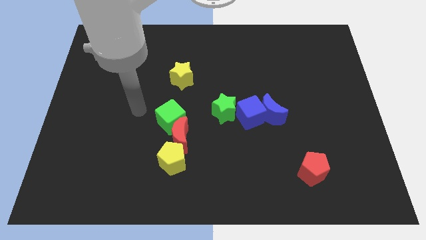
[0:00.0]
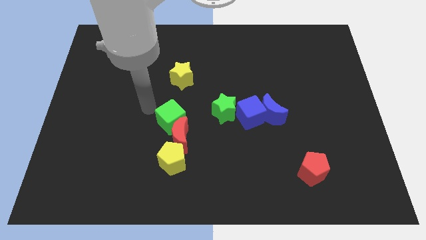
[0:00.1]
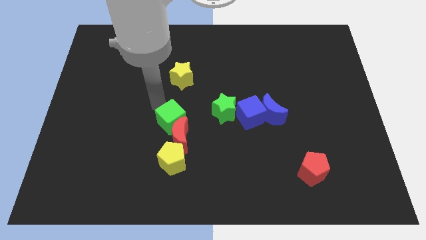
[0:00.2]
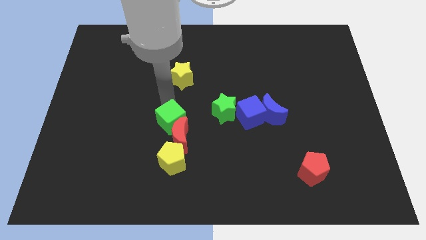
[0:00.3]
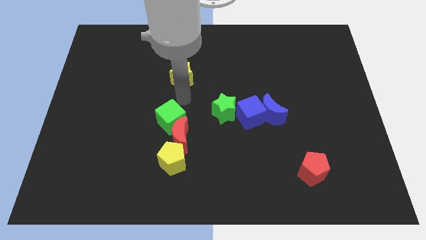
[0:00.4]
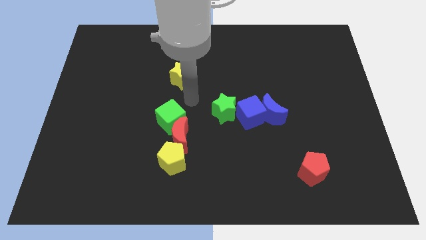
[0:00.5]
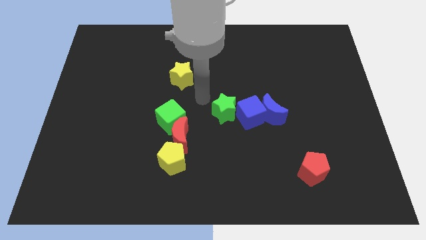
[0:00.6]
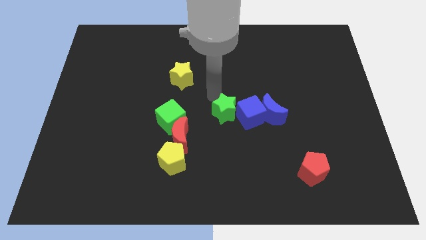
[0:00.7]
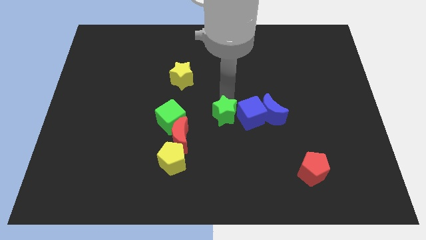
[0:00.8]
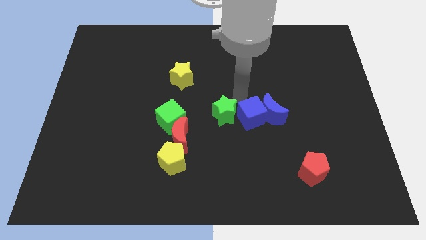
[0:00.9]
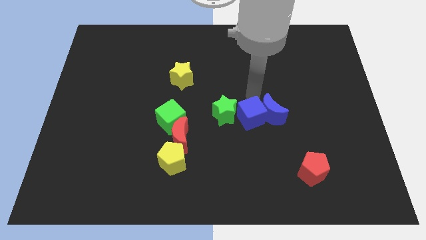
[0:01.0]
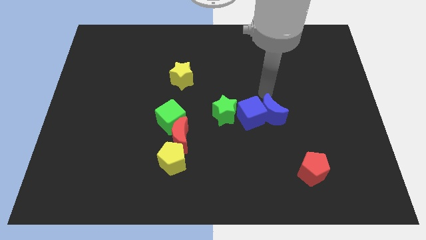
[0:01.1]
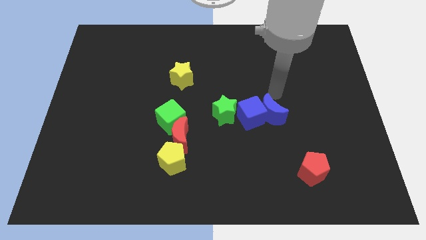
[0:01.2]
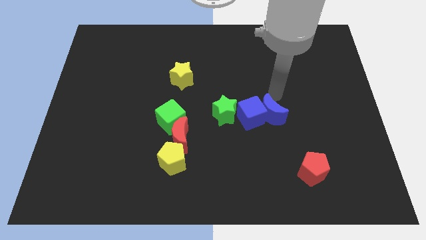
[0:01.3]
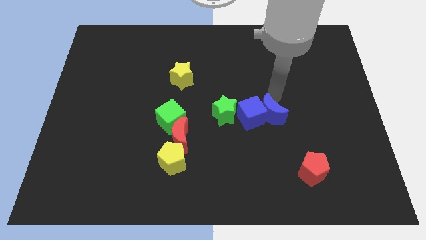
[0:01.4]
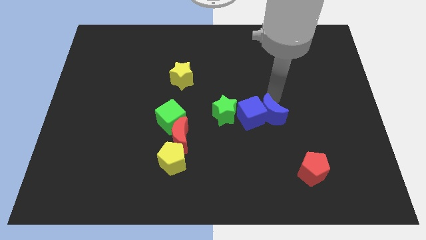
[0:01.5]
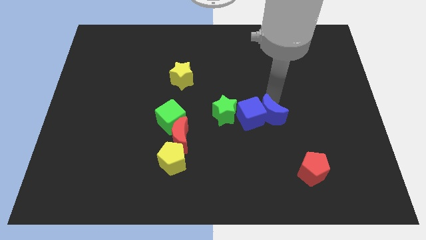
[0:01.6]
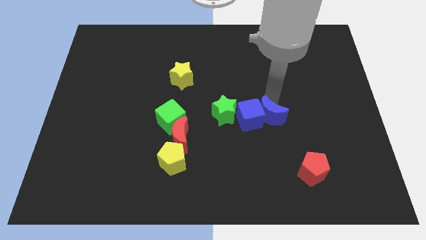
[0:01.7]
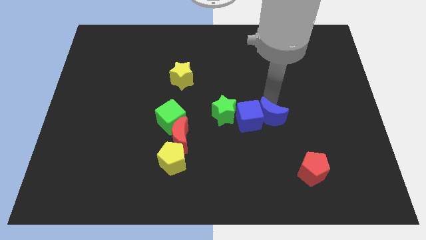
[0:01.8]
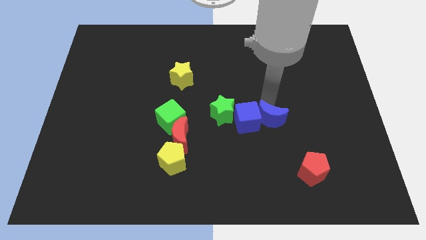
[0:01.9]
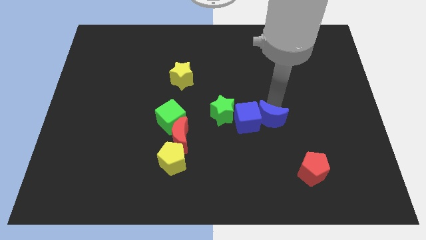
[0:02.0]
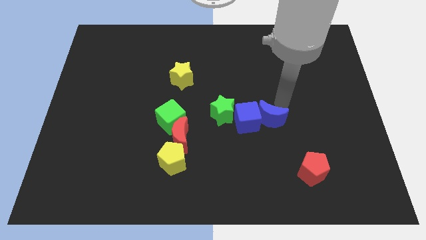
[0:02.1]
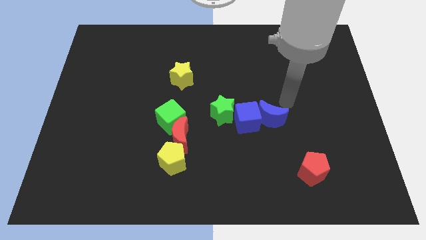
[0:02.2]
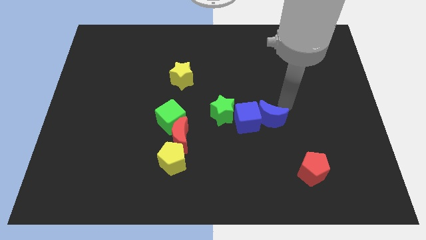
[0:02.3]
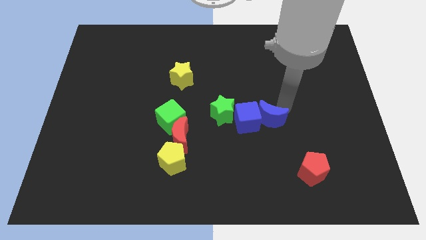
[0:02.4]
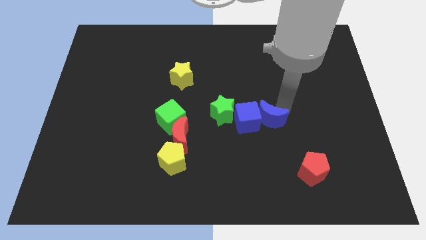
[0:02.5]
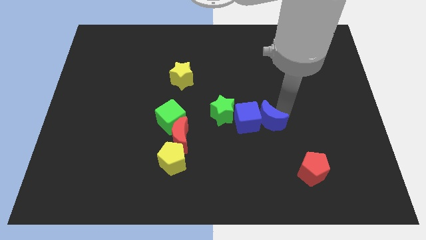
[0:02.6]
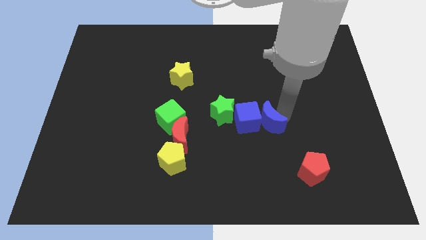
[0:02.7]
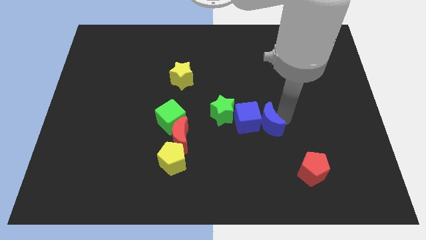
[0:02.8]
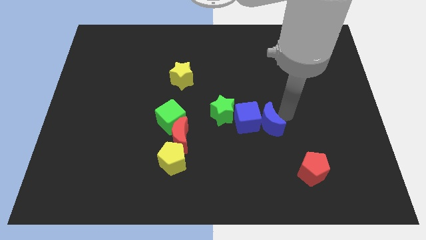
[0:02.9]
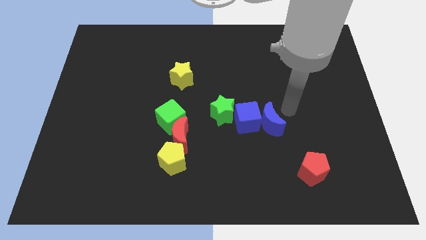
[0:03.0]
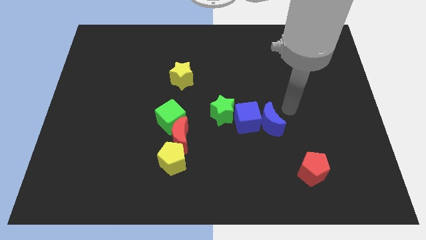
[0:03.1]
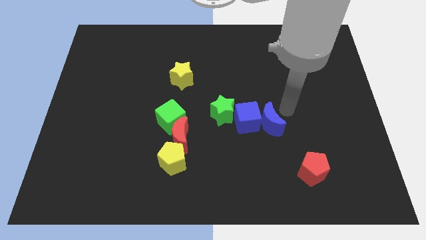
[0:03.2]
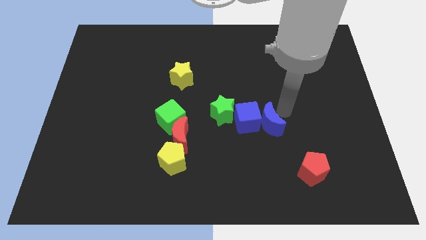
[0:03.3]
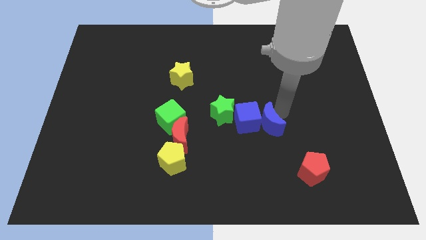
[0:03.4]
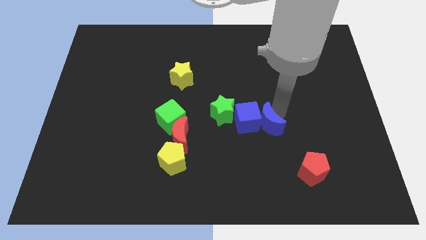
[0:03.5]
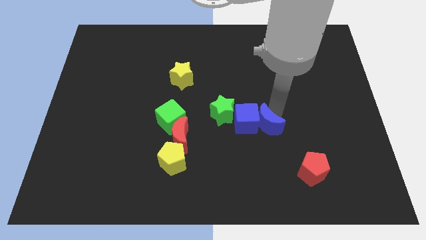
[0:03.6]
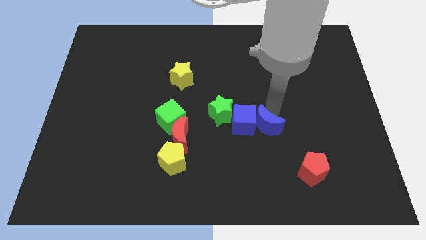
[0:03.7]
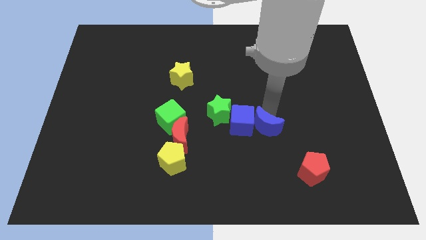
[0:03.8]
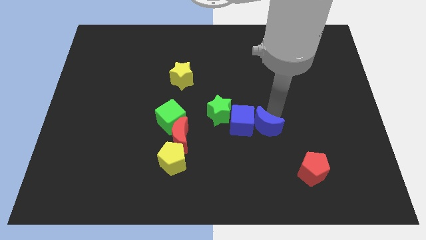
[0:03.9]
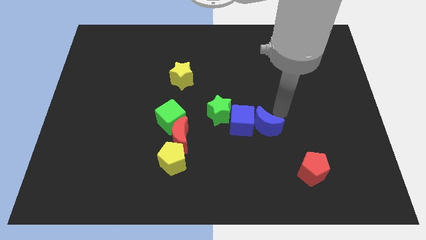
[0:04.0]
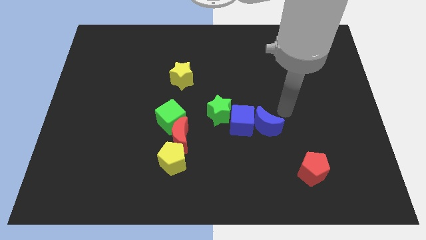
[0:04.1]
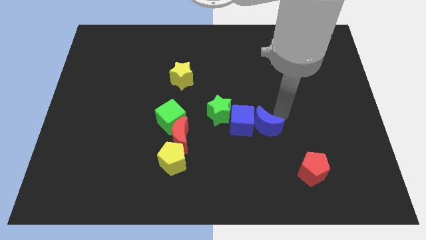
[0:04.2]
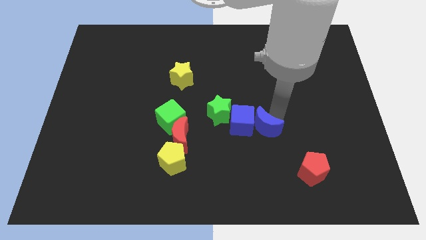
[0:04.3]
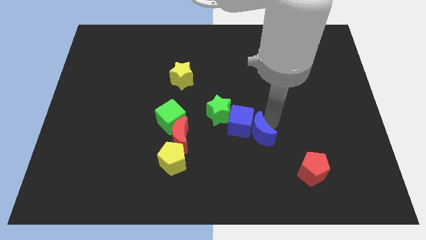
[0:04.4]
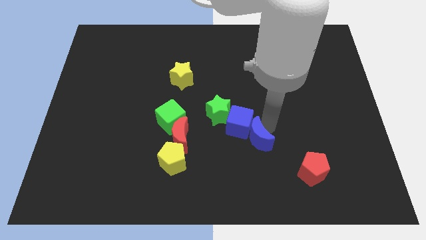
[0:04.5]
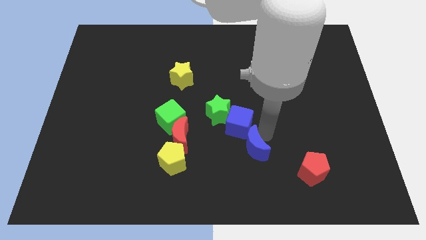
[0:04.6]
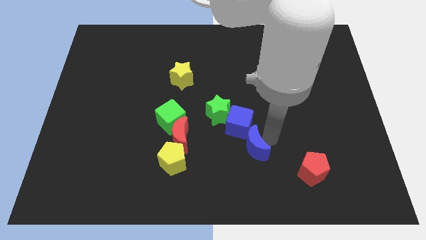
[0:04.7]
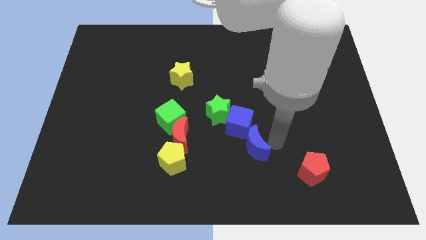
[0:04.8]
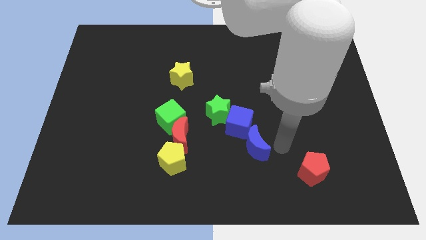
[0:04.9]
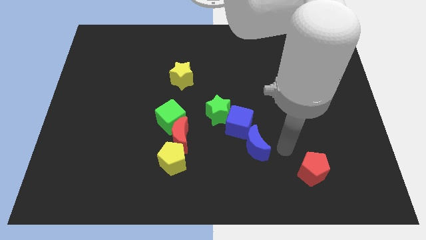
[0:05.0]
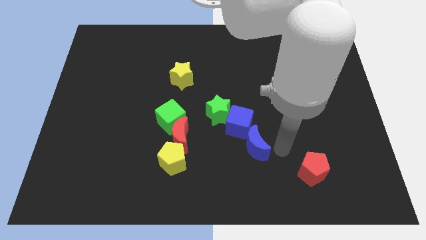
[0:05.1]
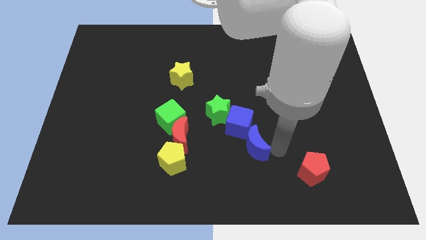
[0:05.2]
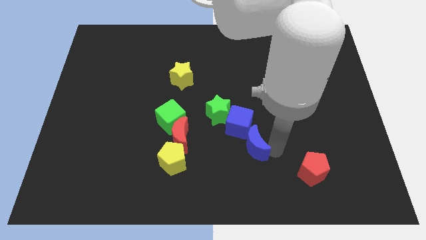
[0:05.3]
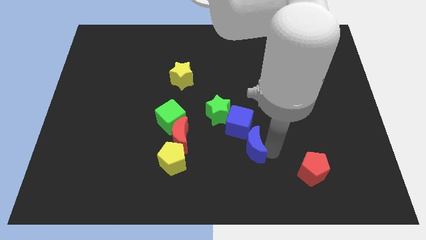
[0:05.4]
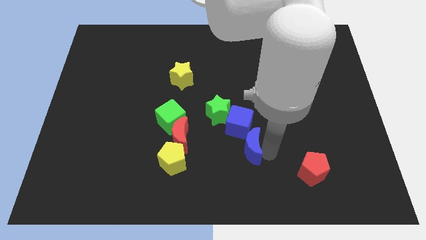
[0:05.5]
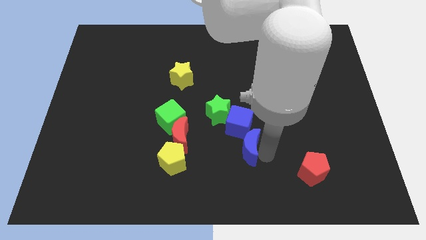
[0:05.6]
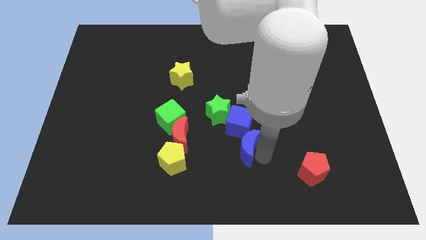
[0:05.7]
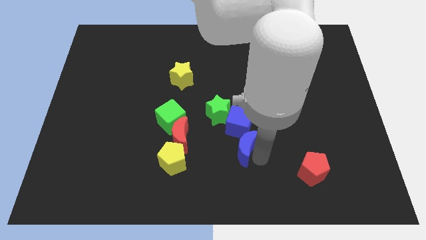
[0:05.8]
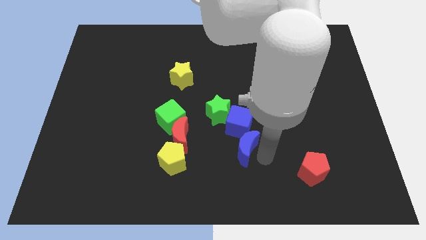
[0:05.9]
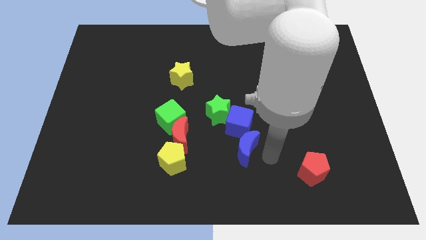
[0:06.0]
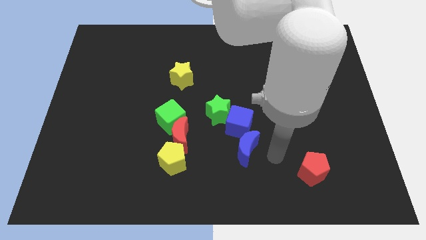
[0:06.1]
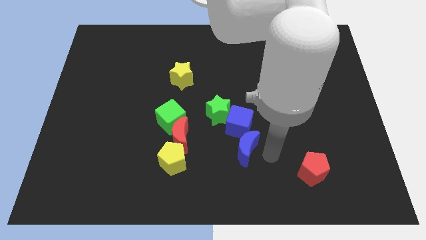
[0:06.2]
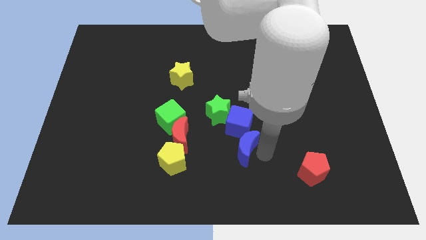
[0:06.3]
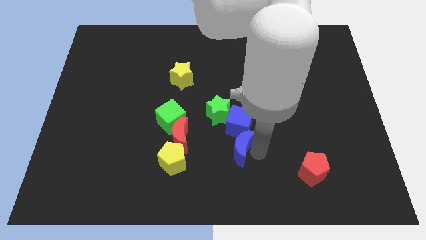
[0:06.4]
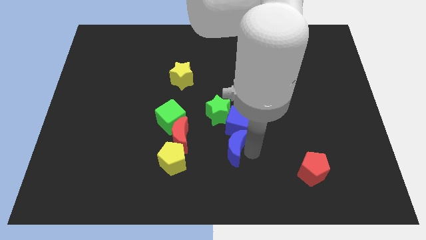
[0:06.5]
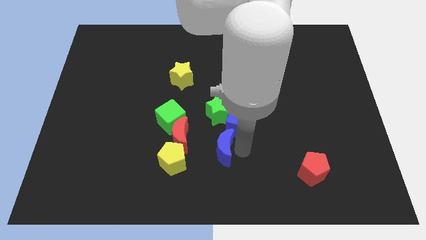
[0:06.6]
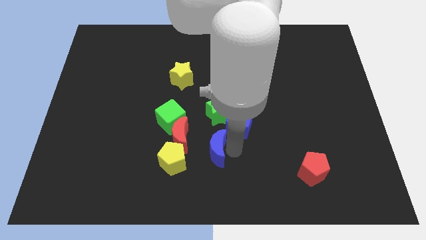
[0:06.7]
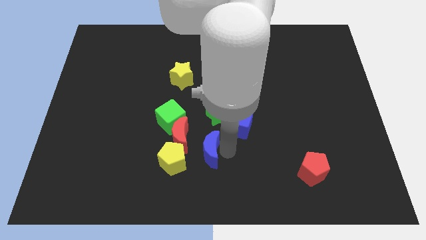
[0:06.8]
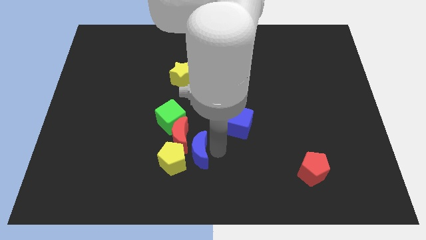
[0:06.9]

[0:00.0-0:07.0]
push the blue moon next to the yellow pentagon

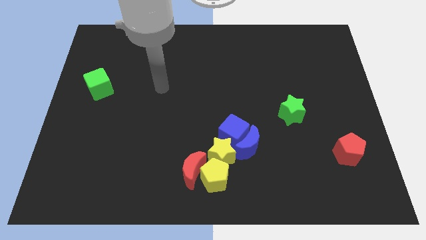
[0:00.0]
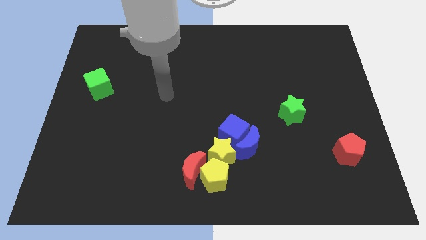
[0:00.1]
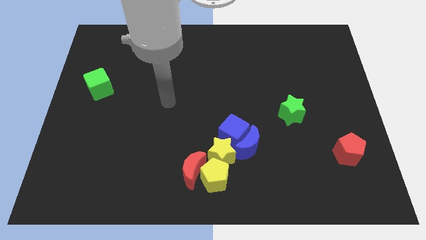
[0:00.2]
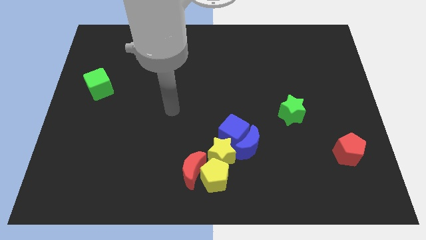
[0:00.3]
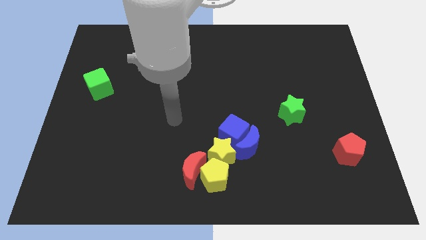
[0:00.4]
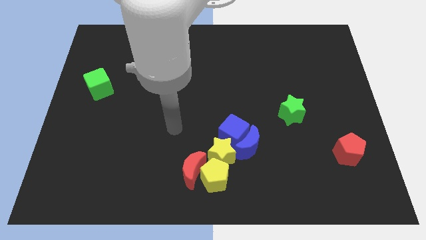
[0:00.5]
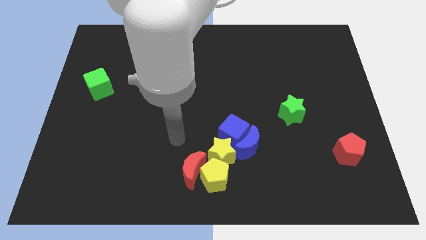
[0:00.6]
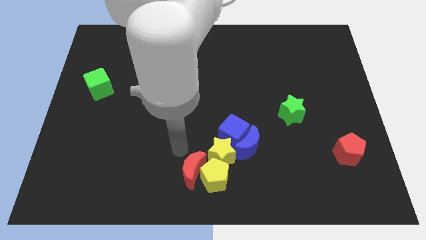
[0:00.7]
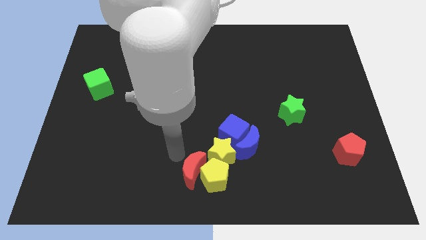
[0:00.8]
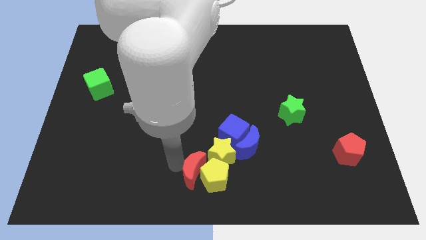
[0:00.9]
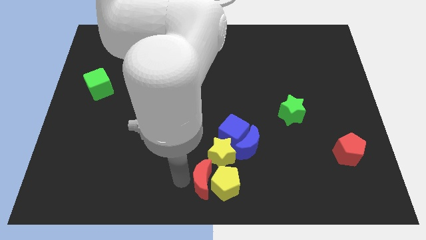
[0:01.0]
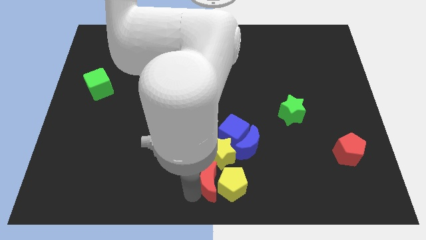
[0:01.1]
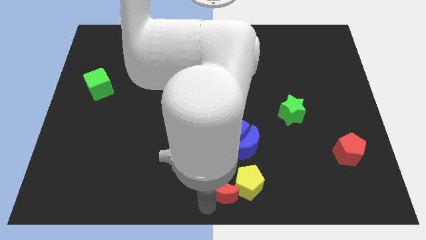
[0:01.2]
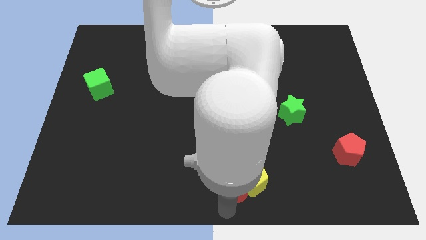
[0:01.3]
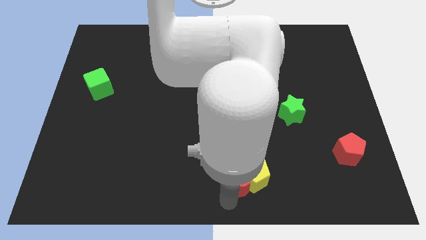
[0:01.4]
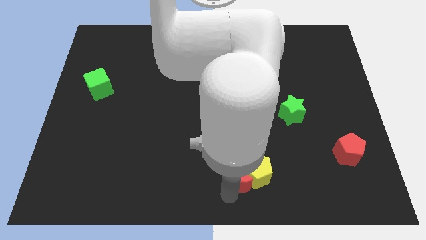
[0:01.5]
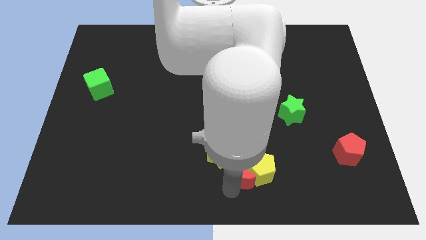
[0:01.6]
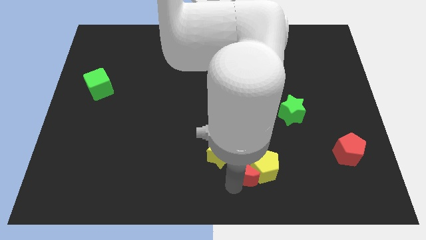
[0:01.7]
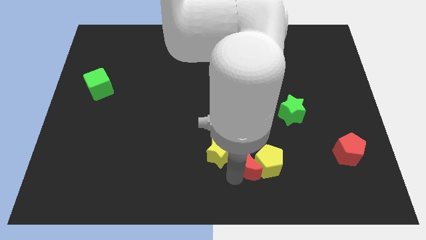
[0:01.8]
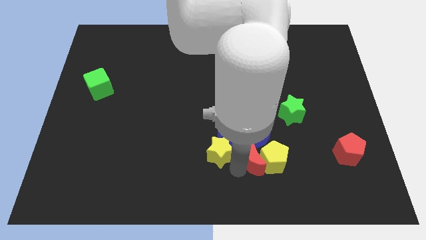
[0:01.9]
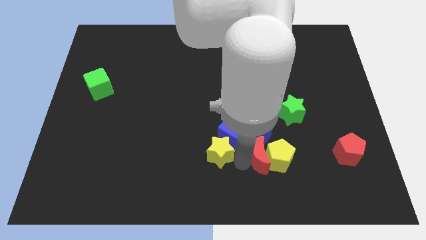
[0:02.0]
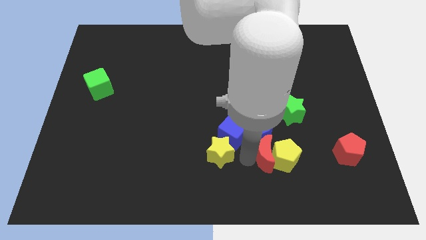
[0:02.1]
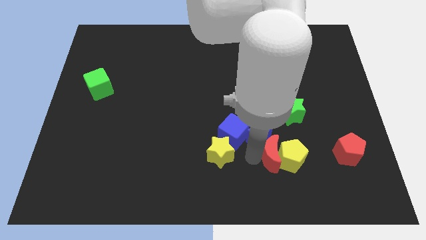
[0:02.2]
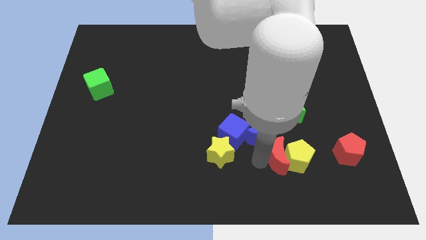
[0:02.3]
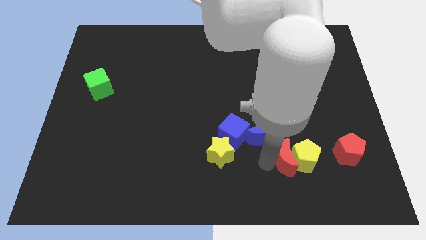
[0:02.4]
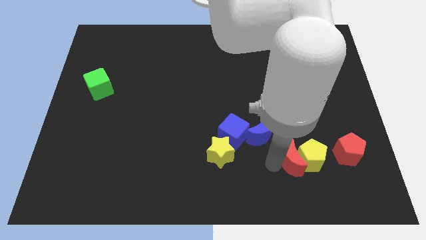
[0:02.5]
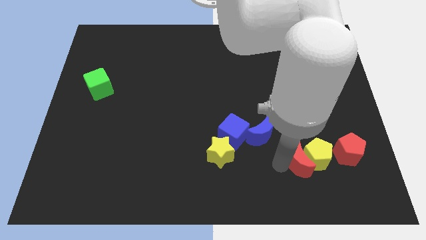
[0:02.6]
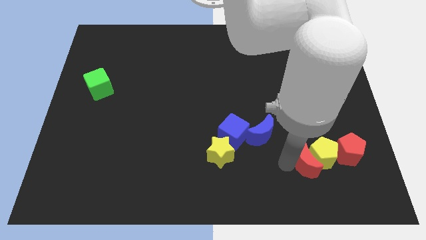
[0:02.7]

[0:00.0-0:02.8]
slide the yellow pentagon close to the red pentagon
